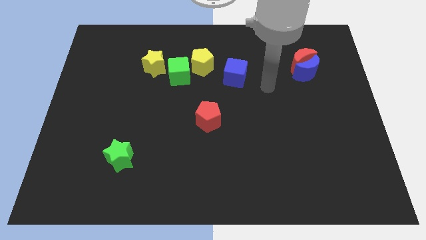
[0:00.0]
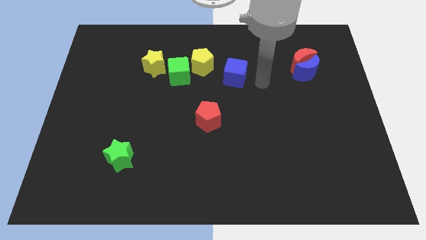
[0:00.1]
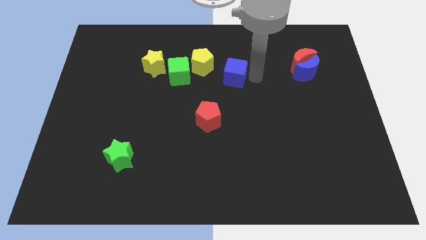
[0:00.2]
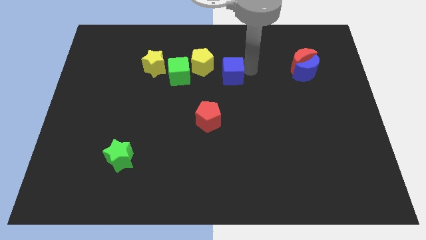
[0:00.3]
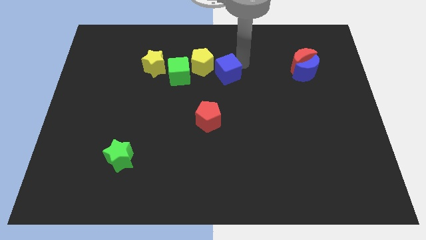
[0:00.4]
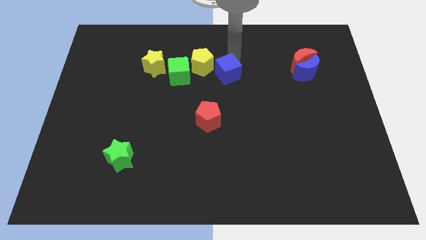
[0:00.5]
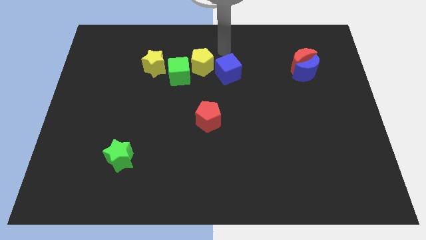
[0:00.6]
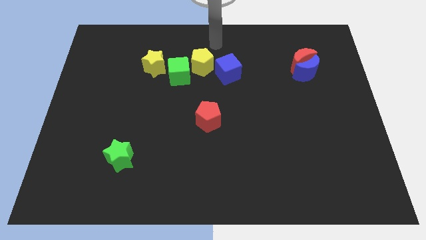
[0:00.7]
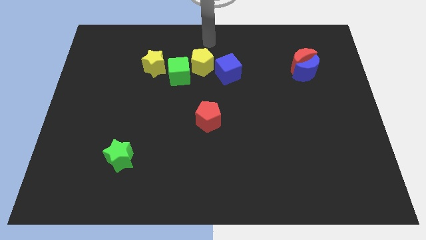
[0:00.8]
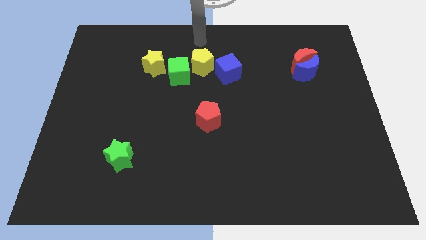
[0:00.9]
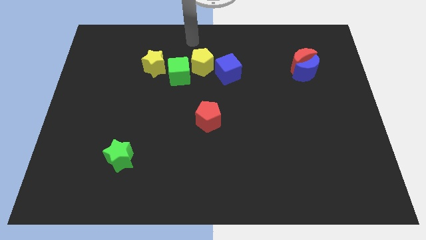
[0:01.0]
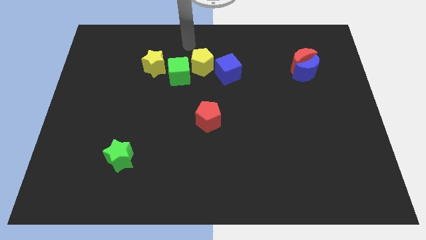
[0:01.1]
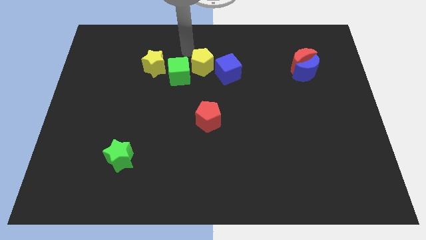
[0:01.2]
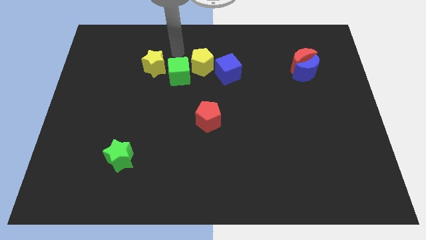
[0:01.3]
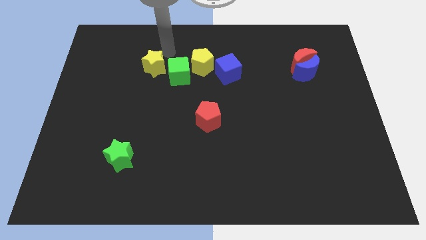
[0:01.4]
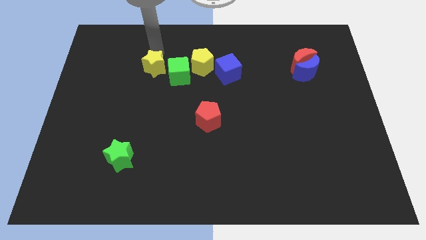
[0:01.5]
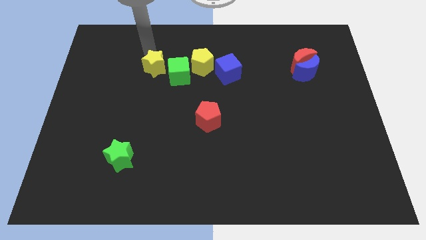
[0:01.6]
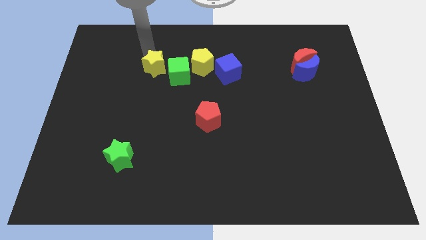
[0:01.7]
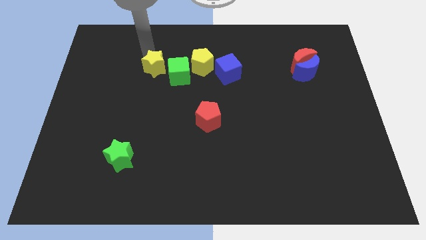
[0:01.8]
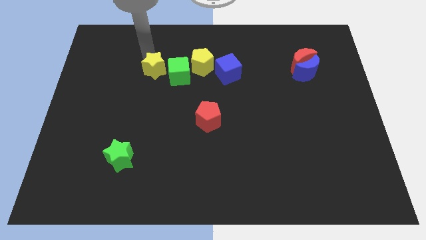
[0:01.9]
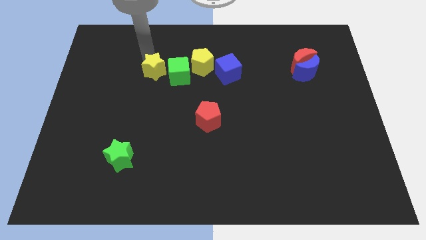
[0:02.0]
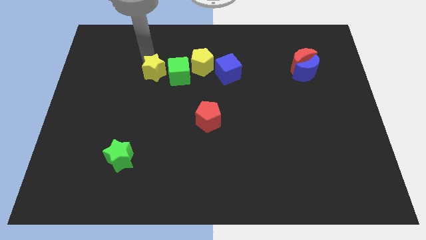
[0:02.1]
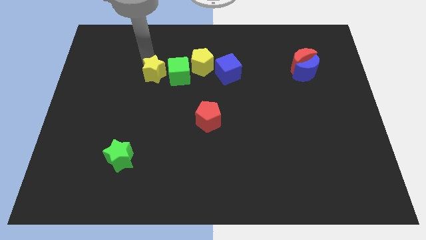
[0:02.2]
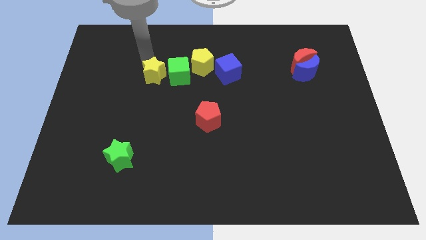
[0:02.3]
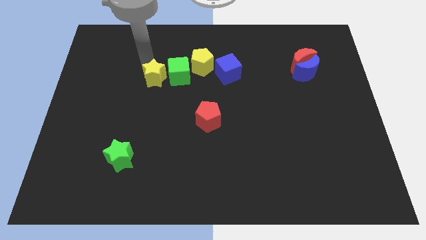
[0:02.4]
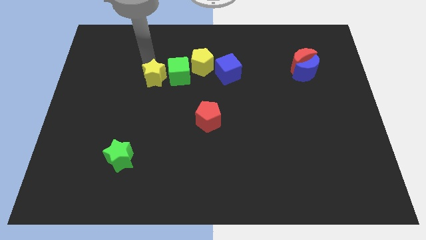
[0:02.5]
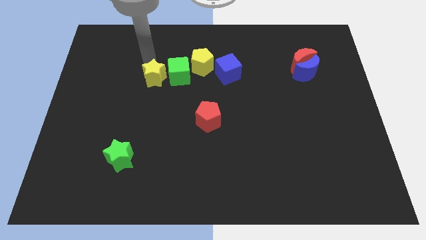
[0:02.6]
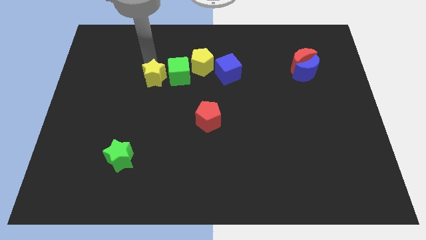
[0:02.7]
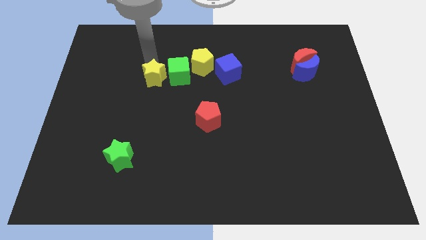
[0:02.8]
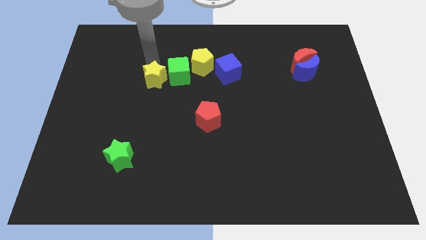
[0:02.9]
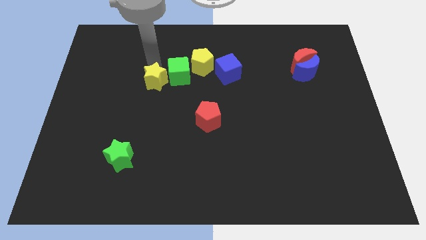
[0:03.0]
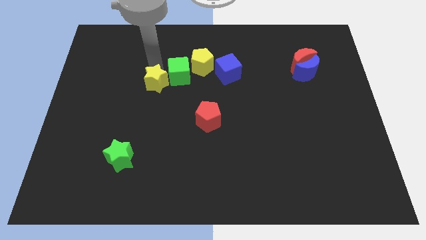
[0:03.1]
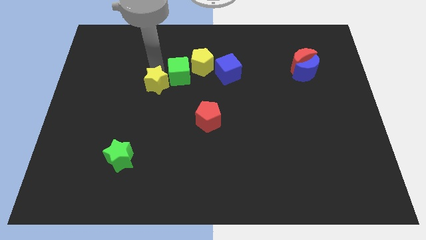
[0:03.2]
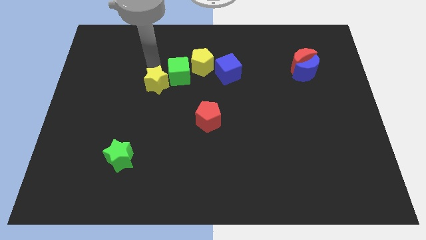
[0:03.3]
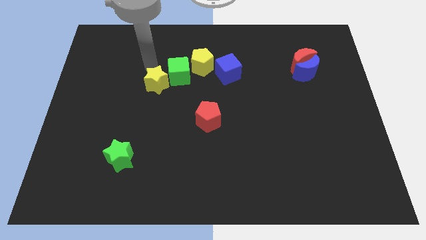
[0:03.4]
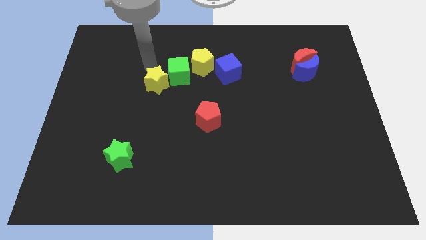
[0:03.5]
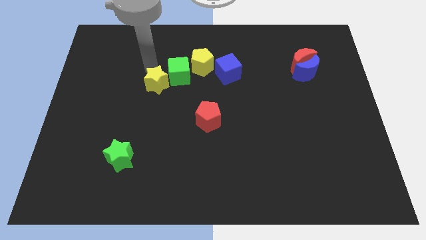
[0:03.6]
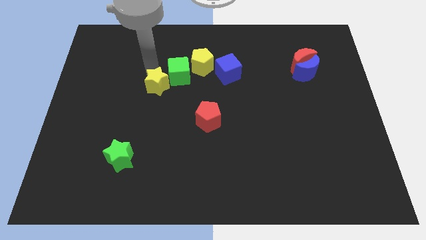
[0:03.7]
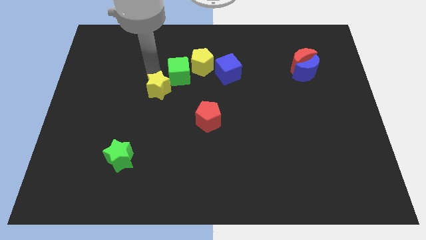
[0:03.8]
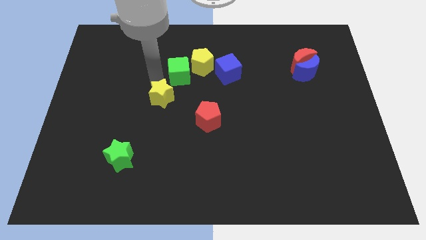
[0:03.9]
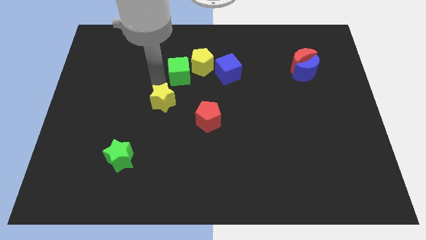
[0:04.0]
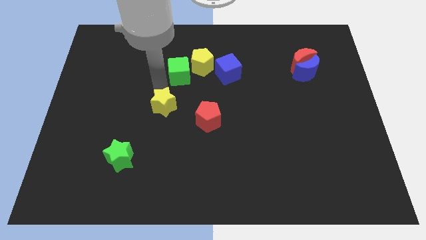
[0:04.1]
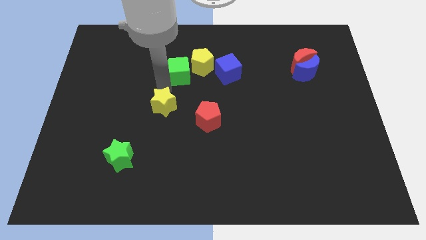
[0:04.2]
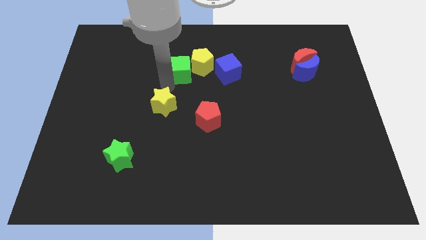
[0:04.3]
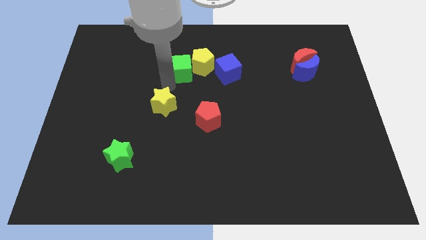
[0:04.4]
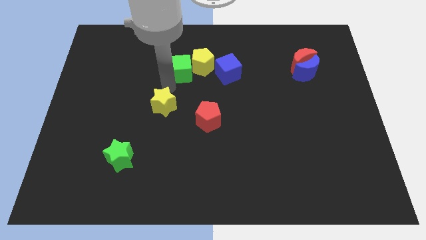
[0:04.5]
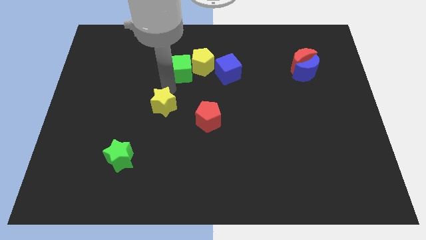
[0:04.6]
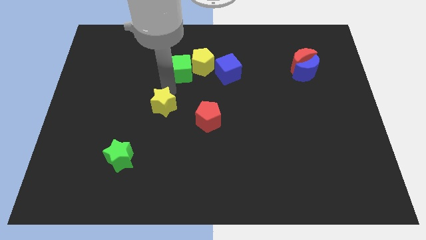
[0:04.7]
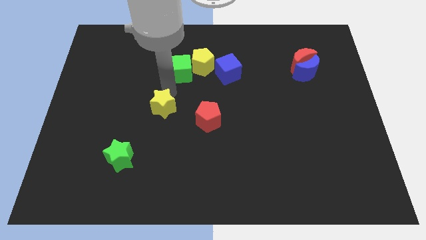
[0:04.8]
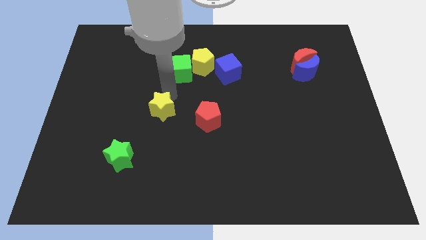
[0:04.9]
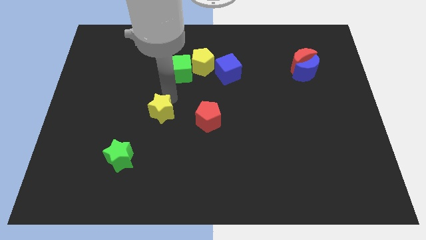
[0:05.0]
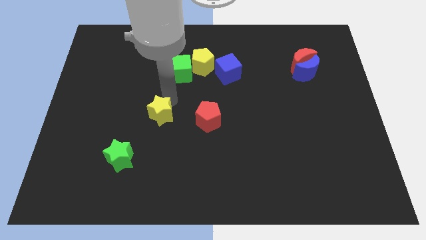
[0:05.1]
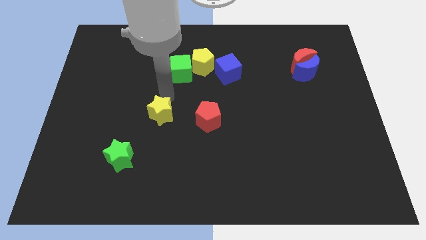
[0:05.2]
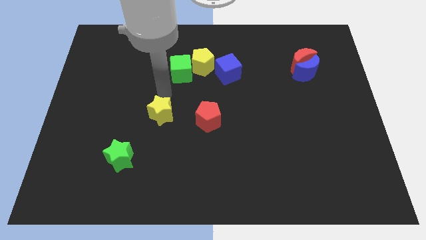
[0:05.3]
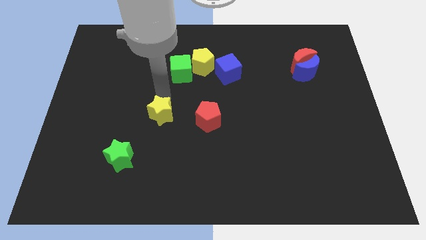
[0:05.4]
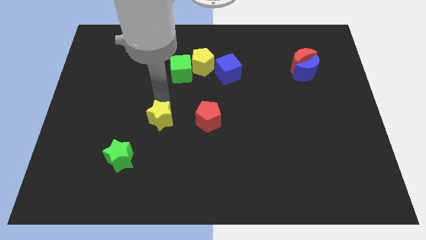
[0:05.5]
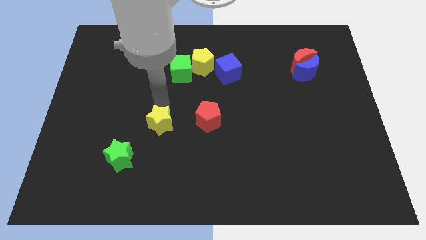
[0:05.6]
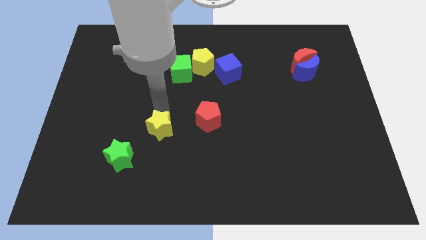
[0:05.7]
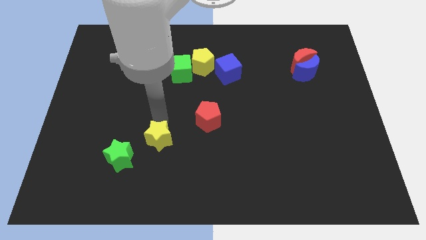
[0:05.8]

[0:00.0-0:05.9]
put the yellow star right of the green star

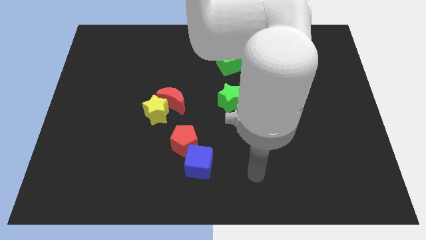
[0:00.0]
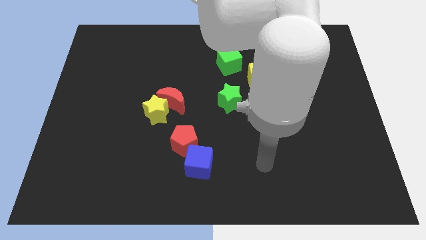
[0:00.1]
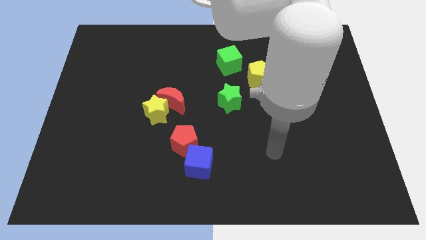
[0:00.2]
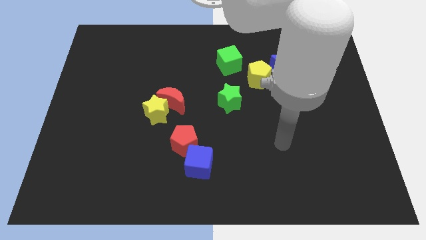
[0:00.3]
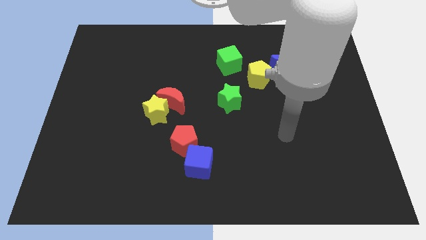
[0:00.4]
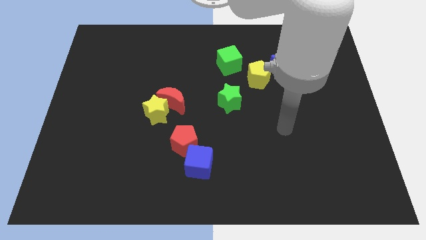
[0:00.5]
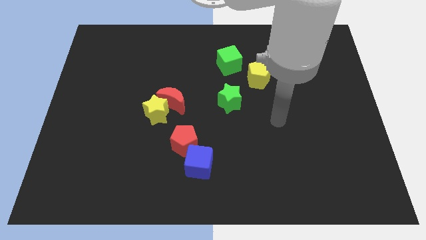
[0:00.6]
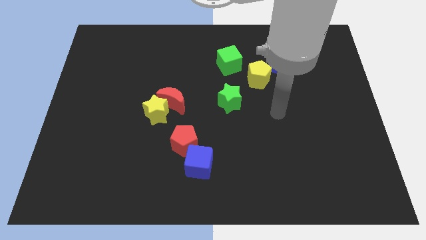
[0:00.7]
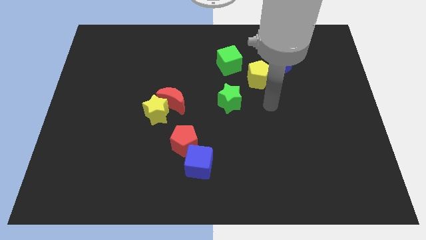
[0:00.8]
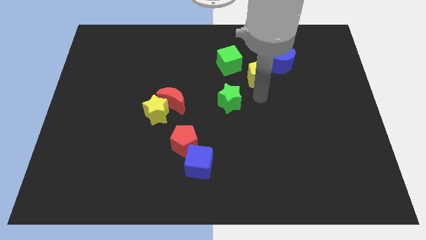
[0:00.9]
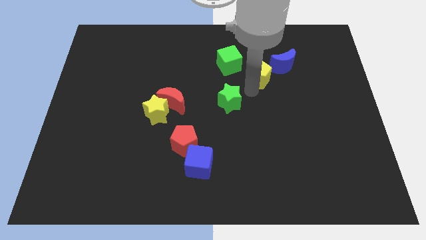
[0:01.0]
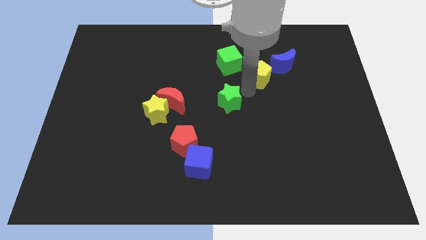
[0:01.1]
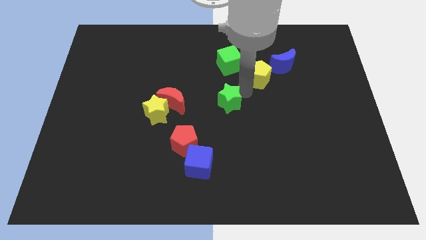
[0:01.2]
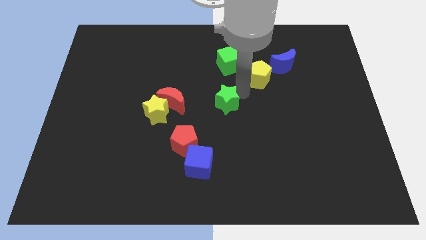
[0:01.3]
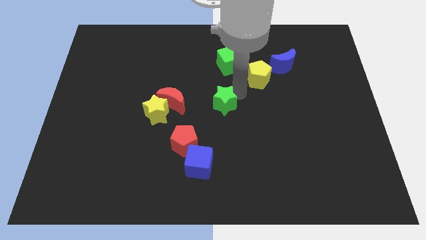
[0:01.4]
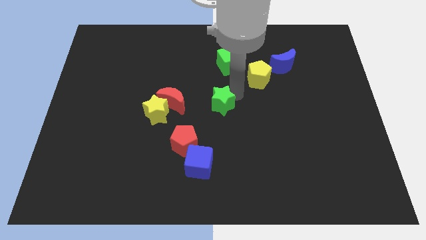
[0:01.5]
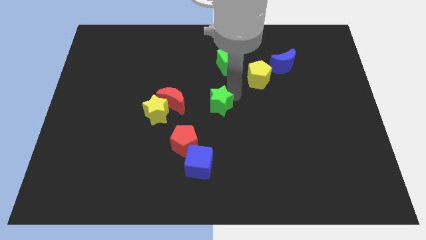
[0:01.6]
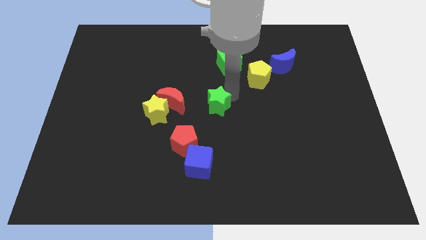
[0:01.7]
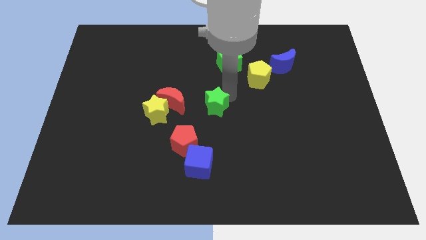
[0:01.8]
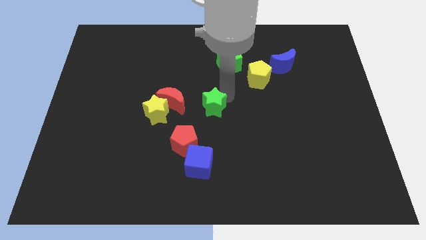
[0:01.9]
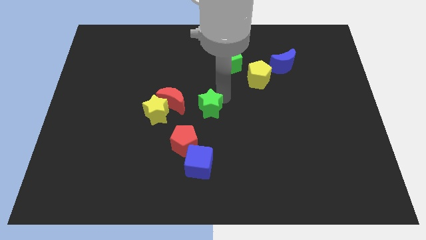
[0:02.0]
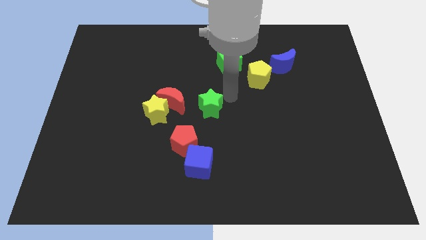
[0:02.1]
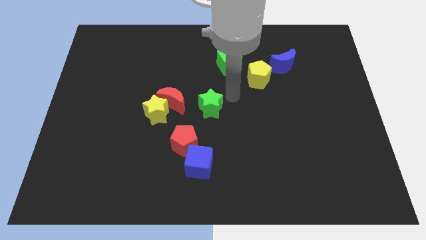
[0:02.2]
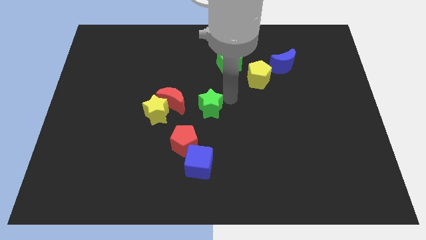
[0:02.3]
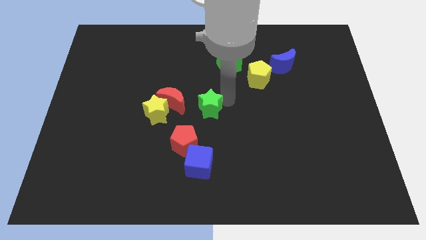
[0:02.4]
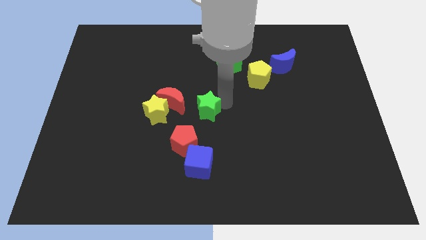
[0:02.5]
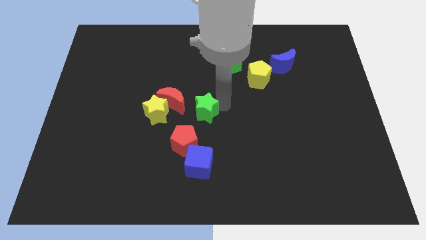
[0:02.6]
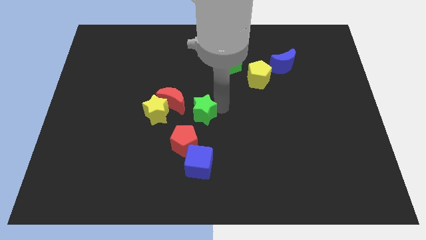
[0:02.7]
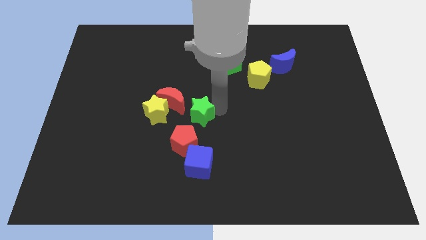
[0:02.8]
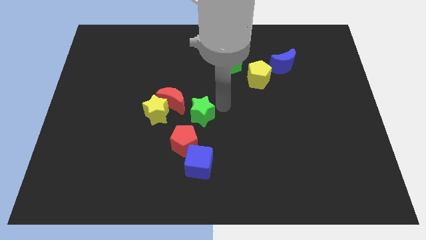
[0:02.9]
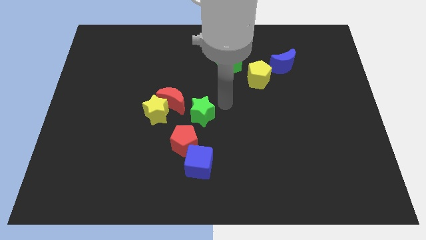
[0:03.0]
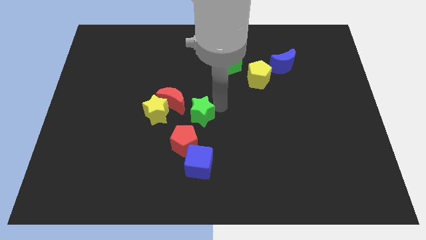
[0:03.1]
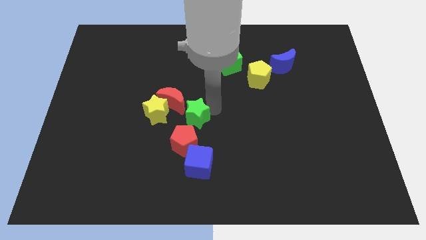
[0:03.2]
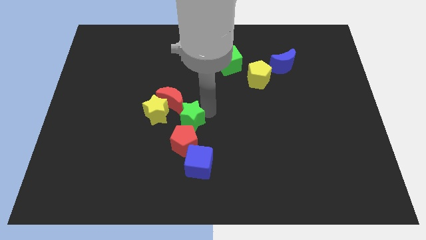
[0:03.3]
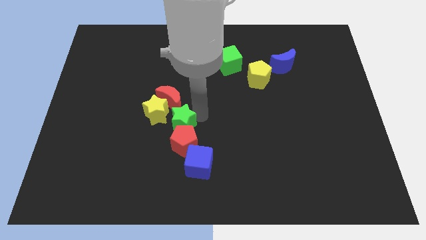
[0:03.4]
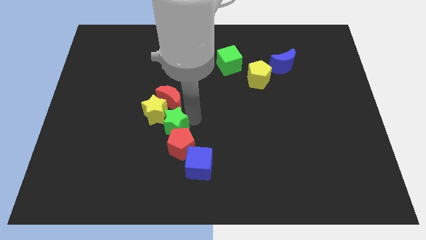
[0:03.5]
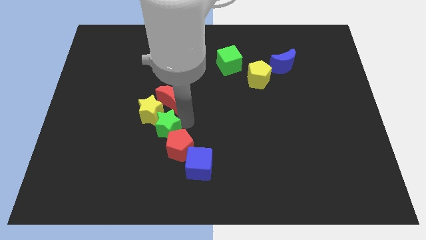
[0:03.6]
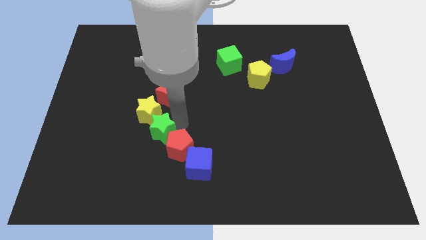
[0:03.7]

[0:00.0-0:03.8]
put the green star just left of the red pentagon
